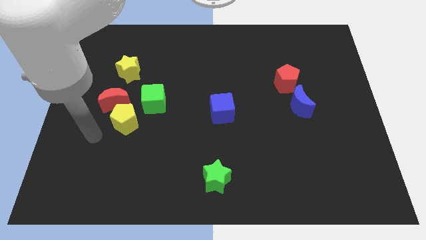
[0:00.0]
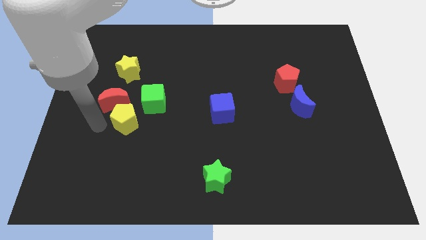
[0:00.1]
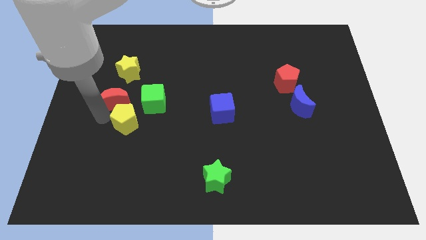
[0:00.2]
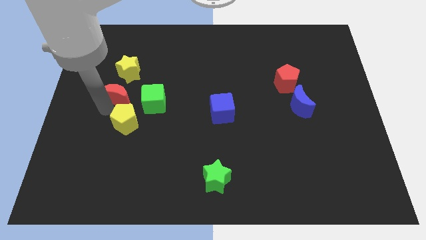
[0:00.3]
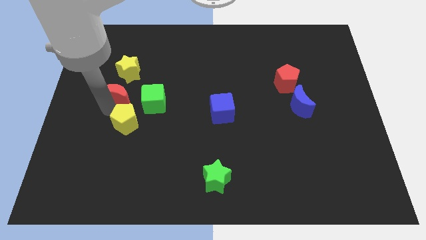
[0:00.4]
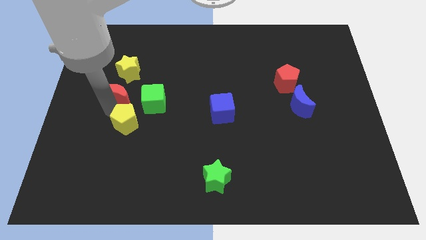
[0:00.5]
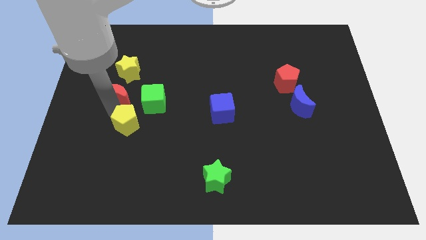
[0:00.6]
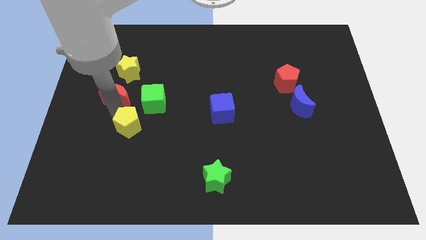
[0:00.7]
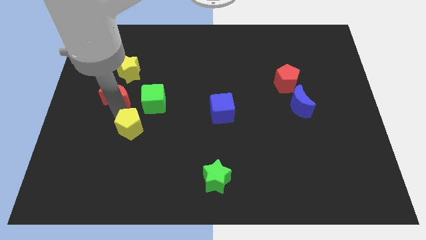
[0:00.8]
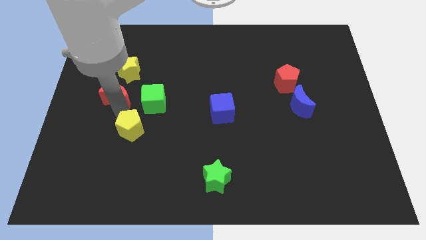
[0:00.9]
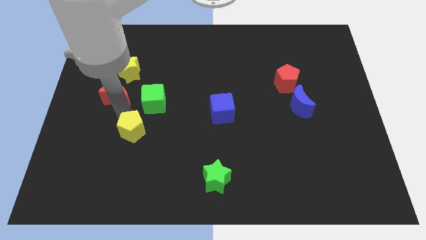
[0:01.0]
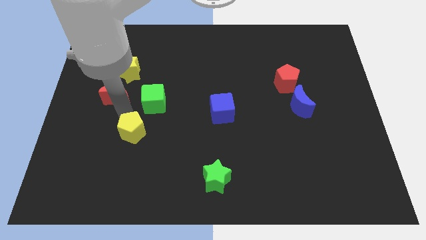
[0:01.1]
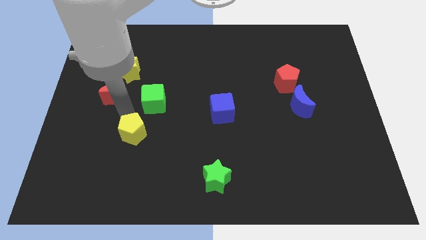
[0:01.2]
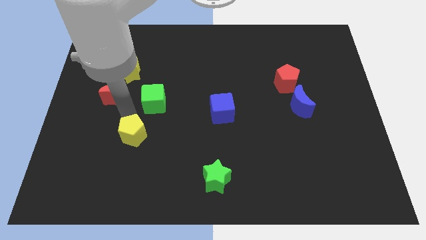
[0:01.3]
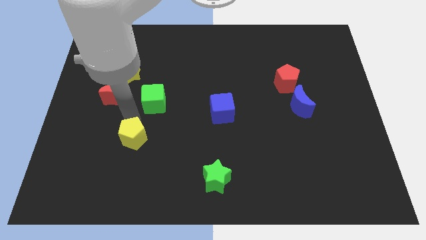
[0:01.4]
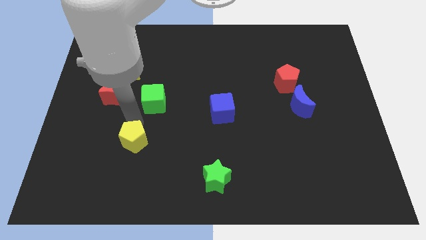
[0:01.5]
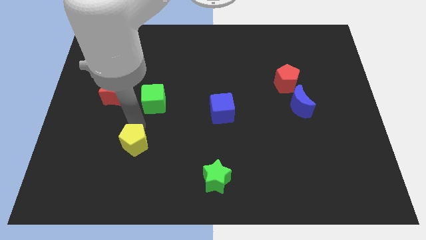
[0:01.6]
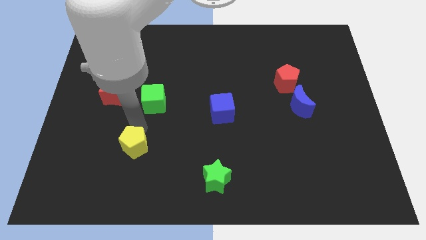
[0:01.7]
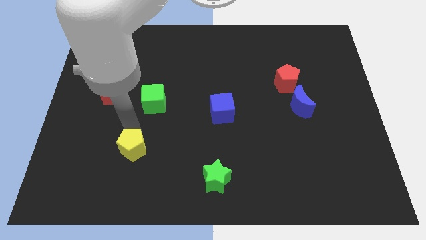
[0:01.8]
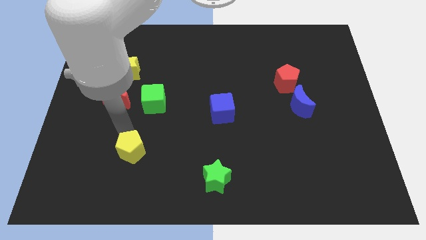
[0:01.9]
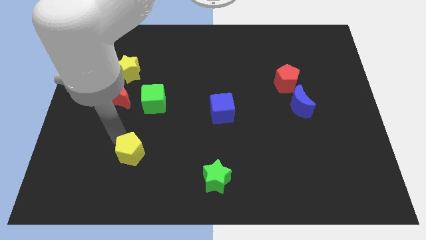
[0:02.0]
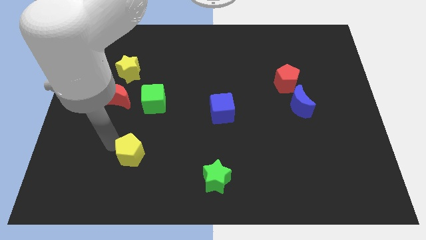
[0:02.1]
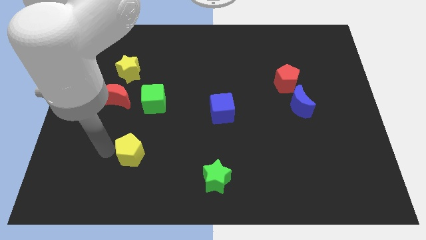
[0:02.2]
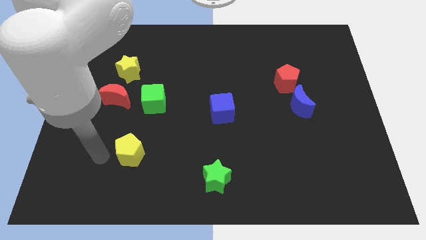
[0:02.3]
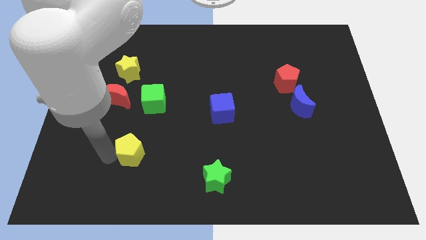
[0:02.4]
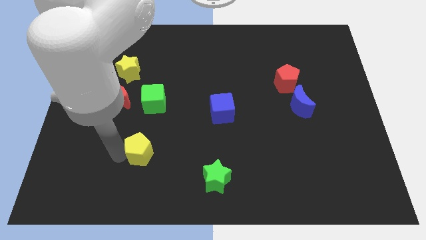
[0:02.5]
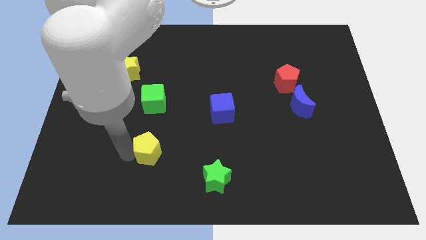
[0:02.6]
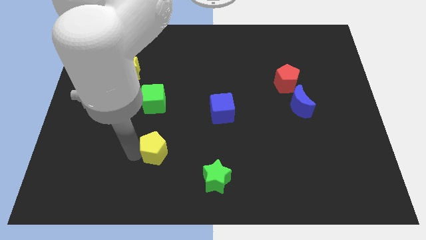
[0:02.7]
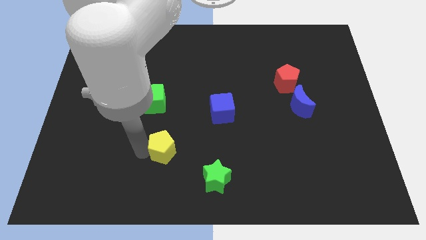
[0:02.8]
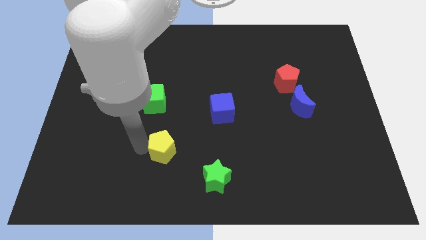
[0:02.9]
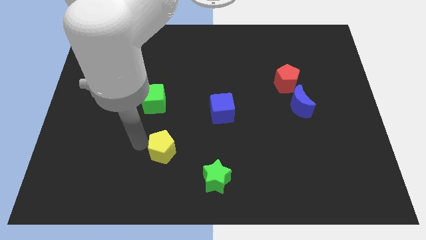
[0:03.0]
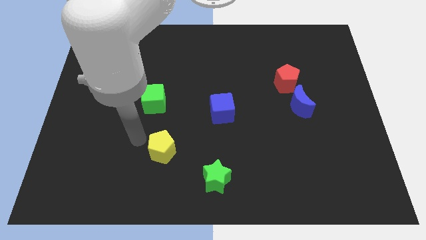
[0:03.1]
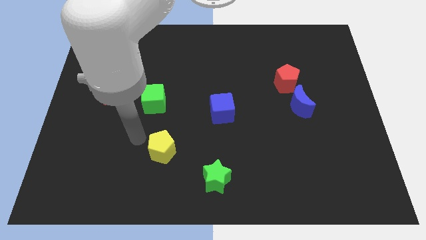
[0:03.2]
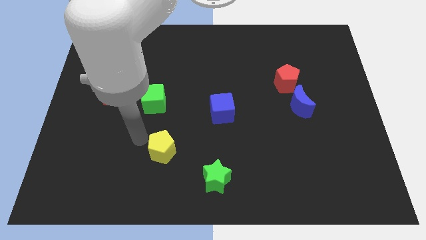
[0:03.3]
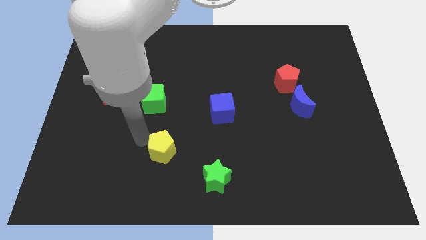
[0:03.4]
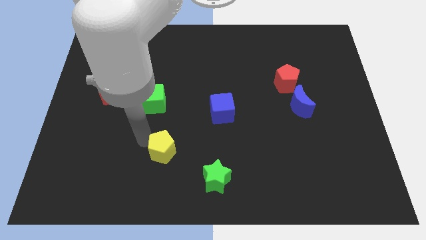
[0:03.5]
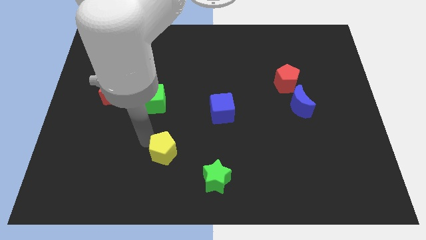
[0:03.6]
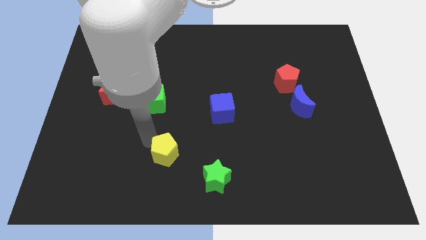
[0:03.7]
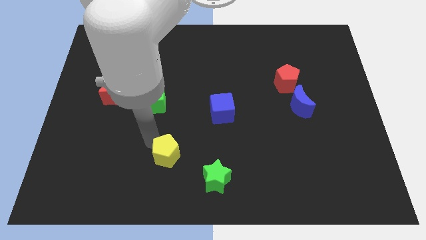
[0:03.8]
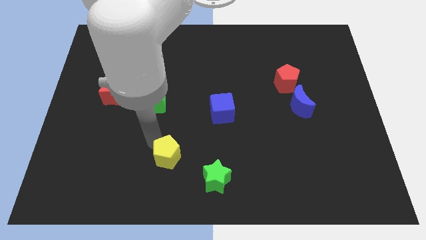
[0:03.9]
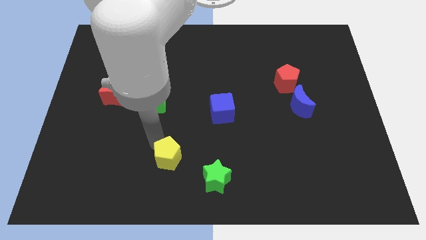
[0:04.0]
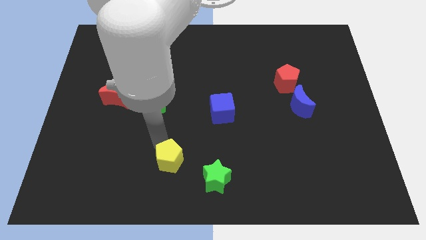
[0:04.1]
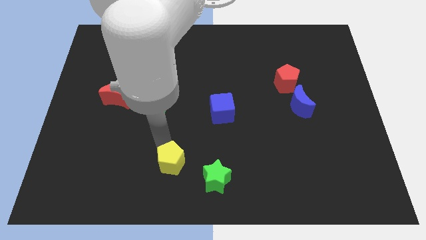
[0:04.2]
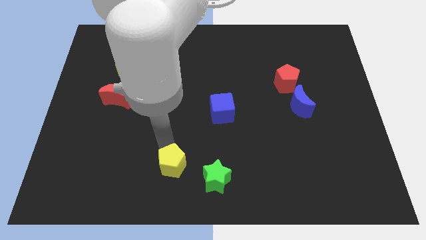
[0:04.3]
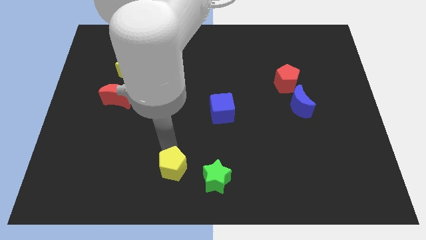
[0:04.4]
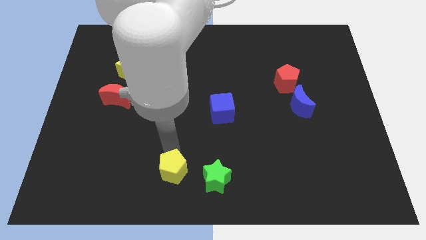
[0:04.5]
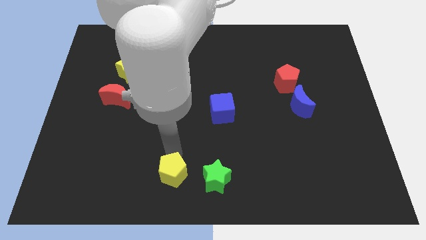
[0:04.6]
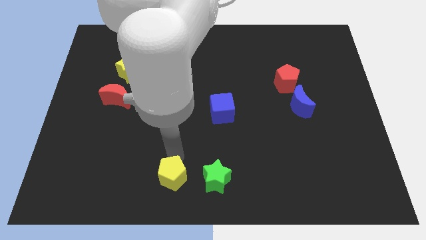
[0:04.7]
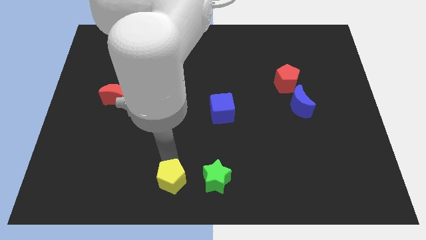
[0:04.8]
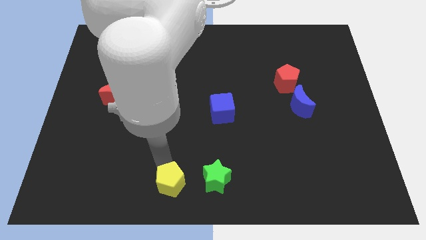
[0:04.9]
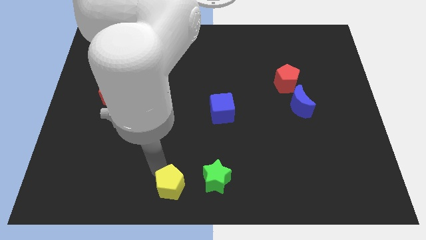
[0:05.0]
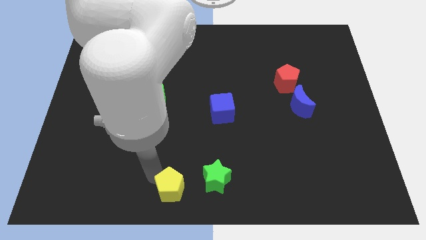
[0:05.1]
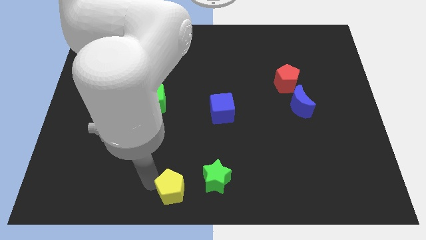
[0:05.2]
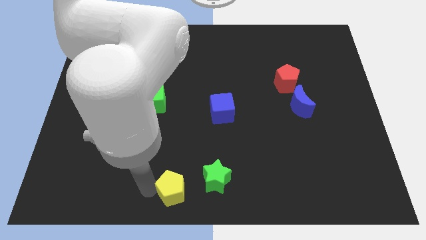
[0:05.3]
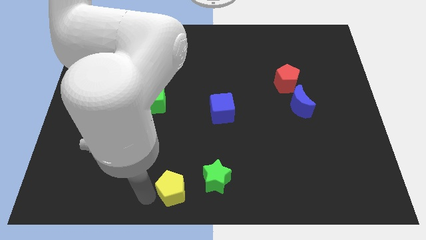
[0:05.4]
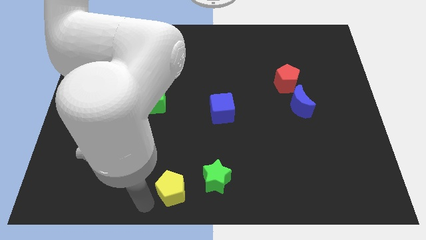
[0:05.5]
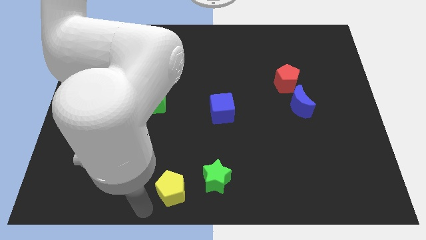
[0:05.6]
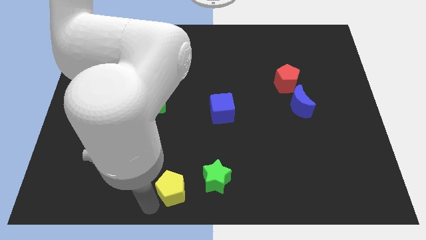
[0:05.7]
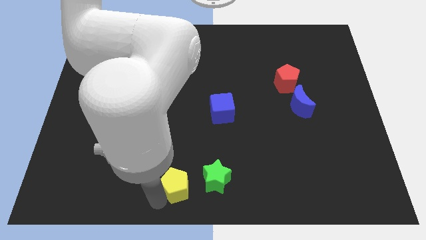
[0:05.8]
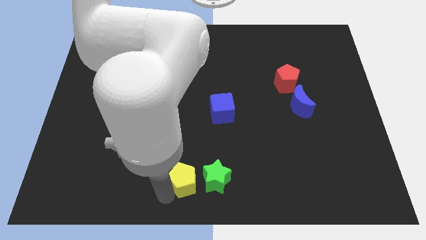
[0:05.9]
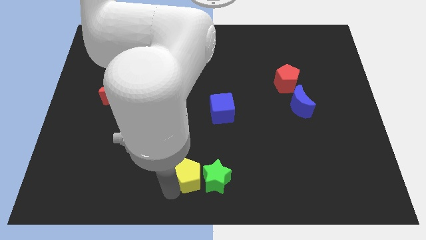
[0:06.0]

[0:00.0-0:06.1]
push the yellow pentagon towards the green star

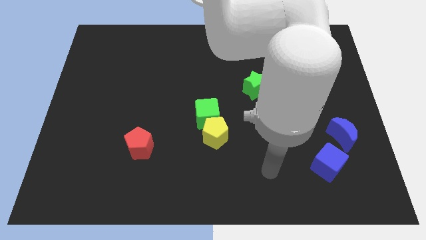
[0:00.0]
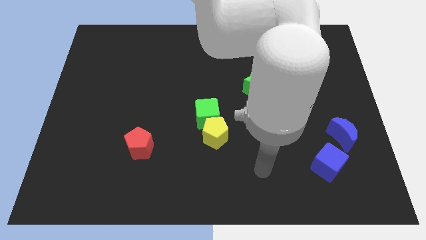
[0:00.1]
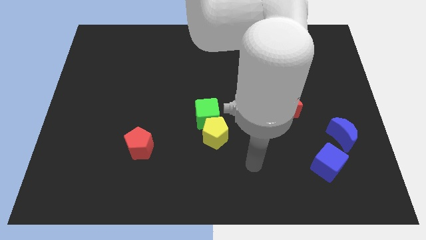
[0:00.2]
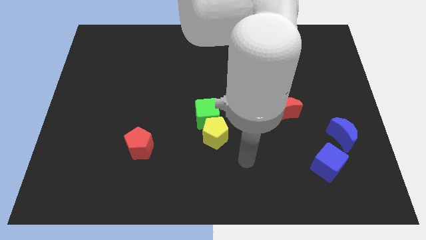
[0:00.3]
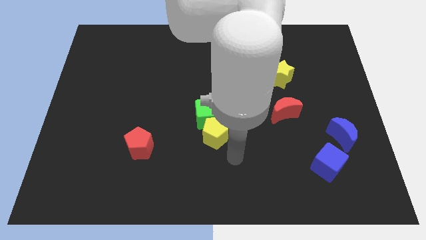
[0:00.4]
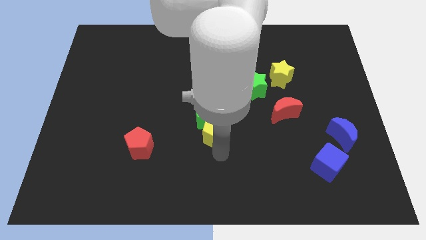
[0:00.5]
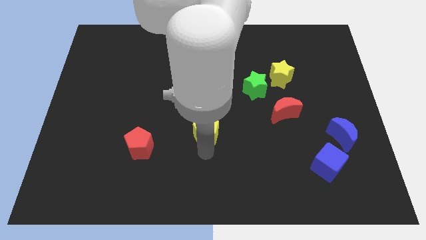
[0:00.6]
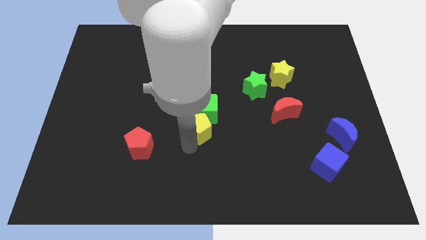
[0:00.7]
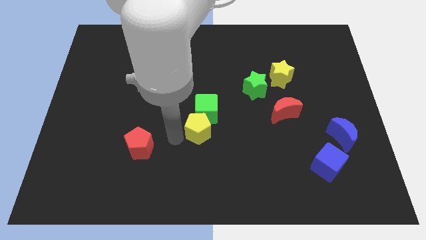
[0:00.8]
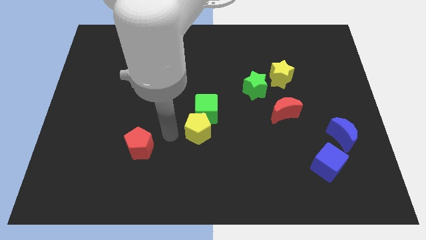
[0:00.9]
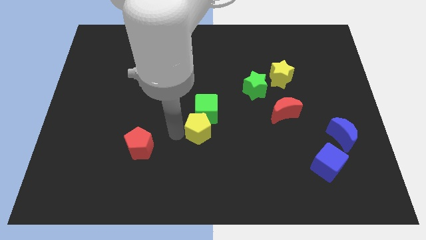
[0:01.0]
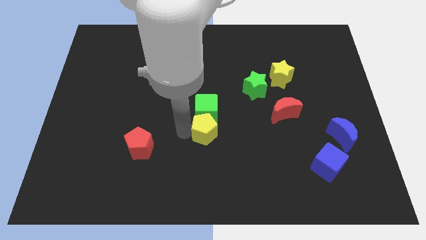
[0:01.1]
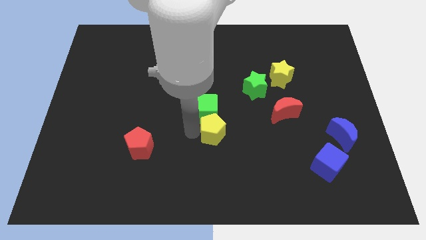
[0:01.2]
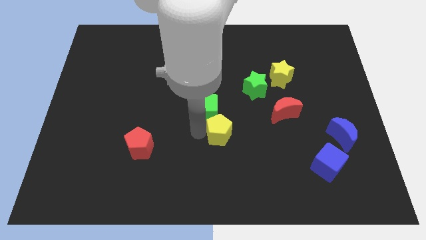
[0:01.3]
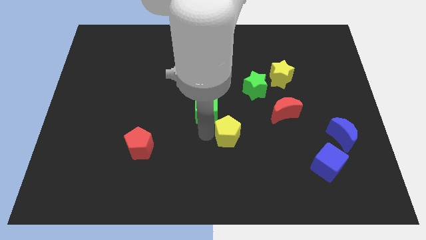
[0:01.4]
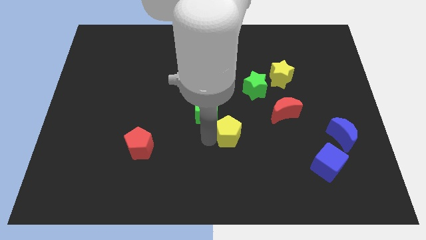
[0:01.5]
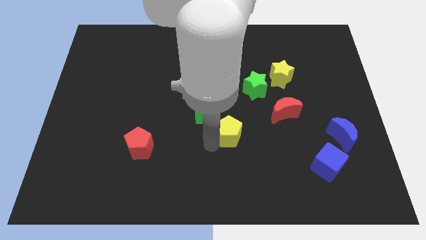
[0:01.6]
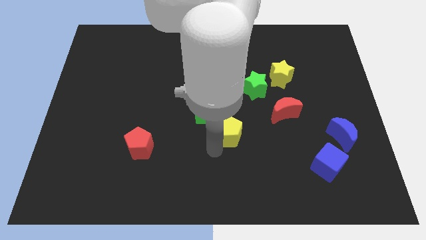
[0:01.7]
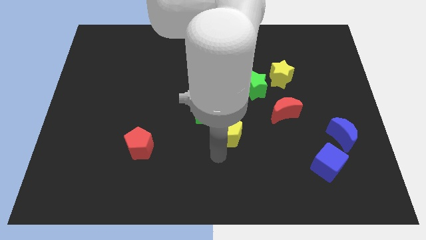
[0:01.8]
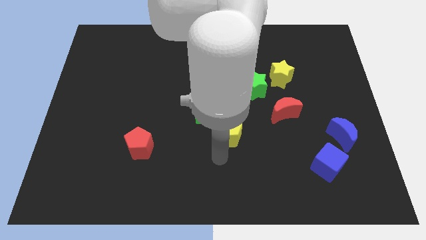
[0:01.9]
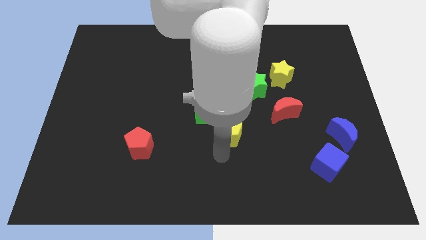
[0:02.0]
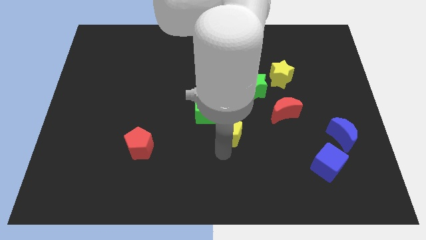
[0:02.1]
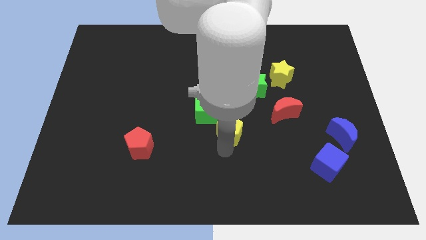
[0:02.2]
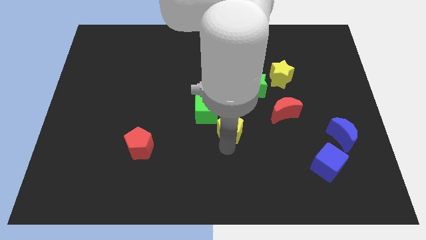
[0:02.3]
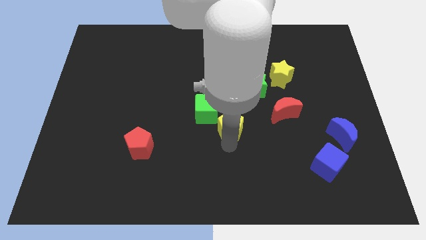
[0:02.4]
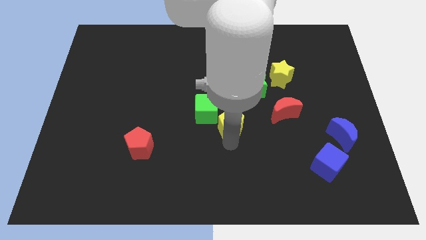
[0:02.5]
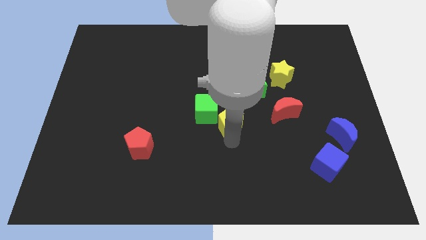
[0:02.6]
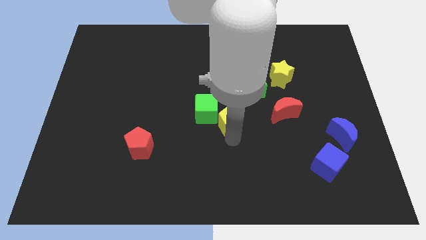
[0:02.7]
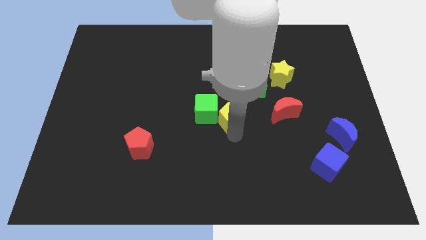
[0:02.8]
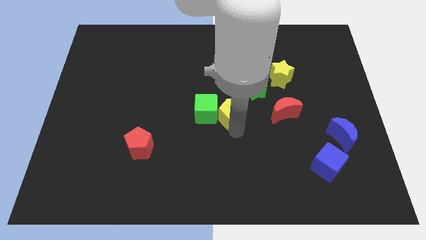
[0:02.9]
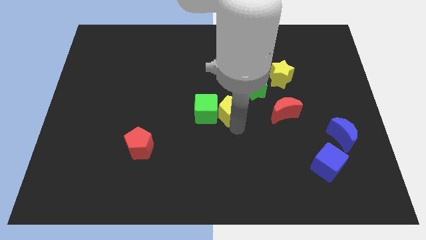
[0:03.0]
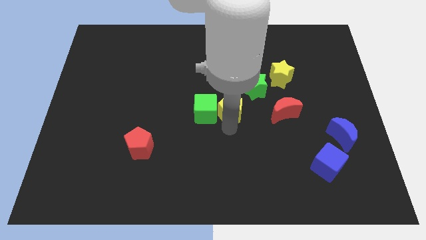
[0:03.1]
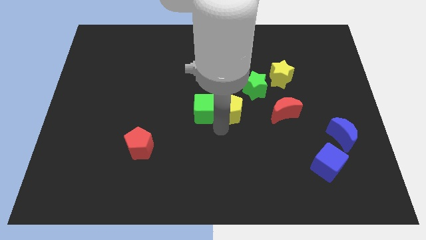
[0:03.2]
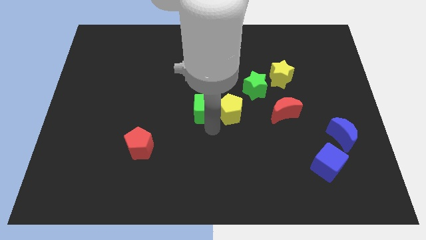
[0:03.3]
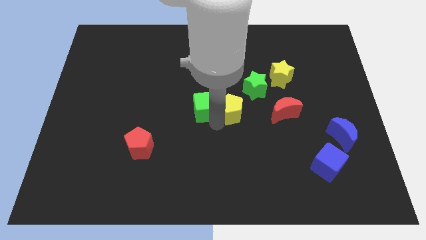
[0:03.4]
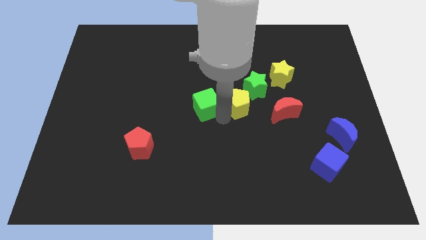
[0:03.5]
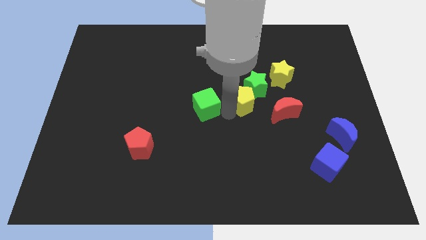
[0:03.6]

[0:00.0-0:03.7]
move the yellow pentagon to the green star
